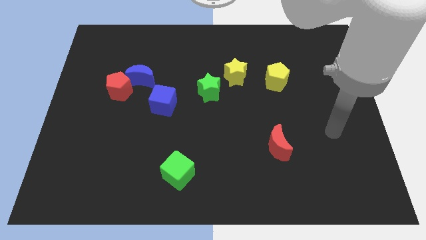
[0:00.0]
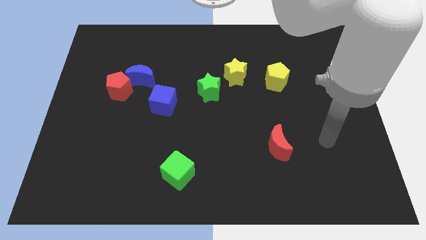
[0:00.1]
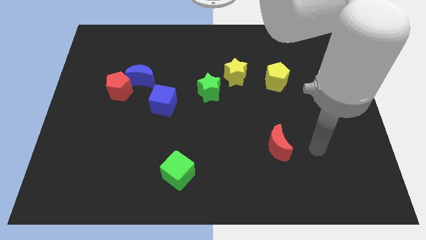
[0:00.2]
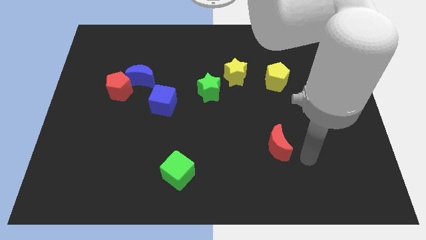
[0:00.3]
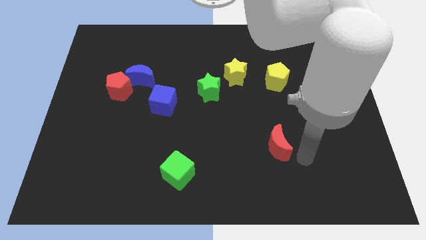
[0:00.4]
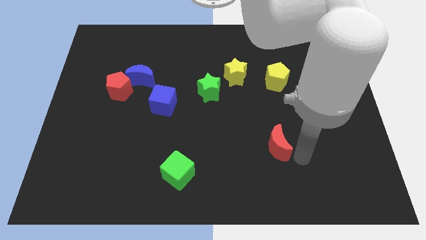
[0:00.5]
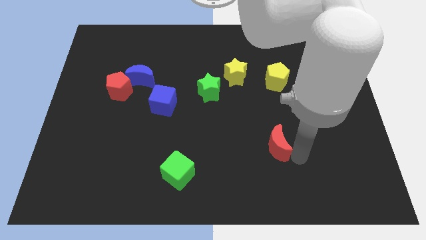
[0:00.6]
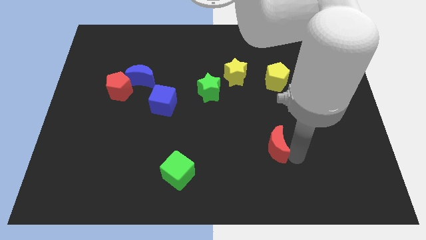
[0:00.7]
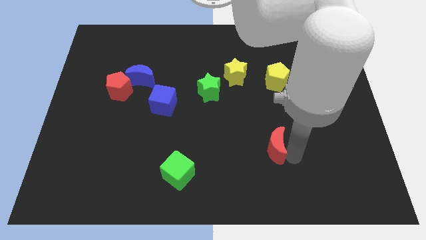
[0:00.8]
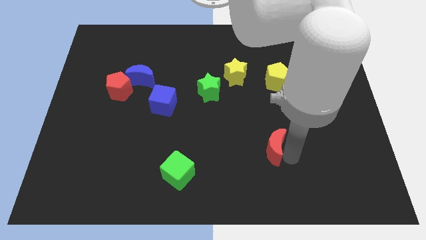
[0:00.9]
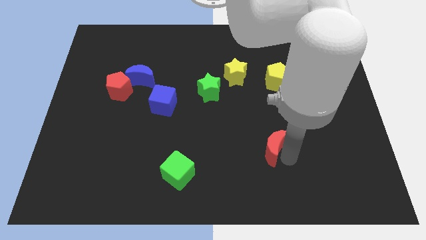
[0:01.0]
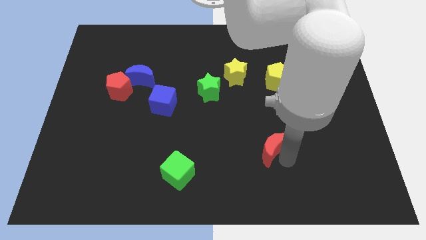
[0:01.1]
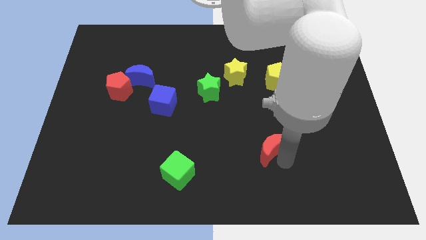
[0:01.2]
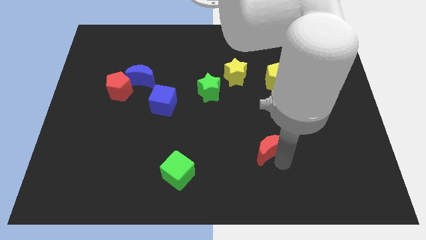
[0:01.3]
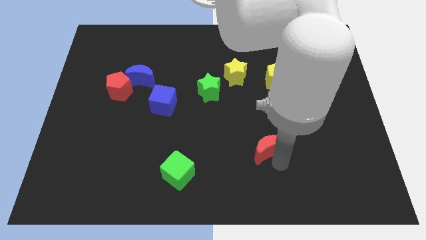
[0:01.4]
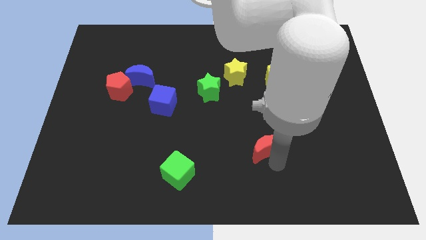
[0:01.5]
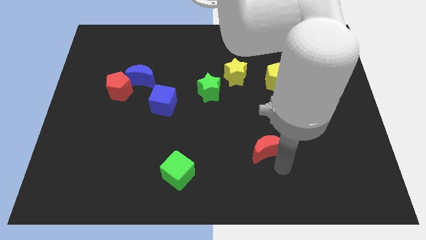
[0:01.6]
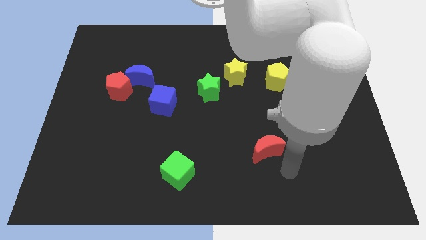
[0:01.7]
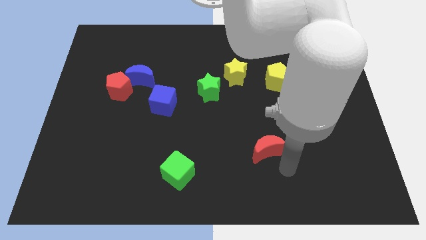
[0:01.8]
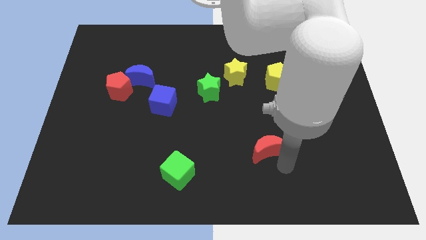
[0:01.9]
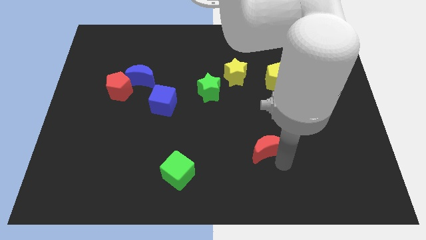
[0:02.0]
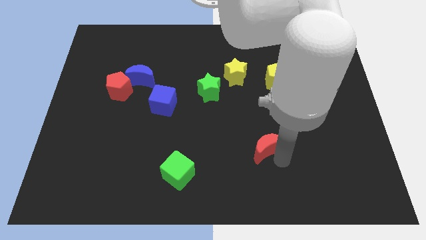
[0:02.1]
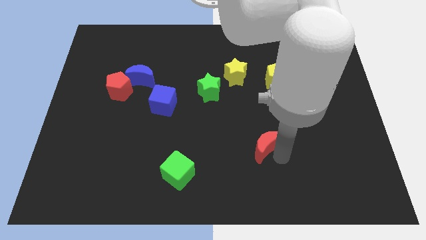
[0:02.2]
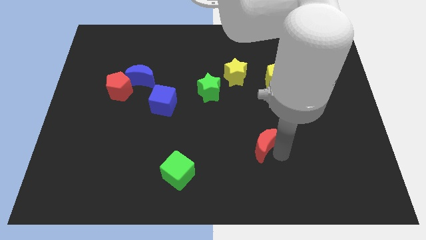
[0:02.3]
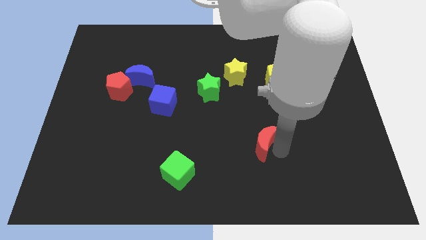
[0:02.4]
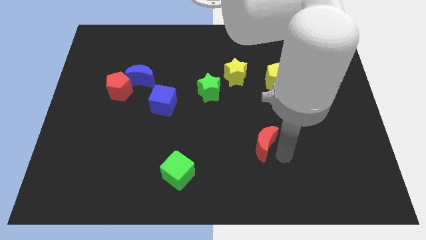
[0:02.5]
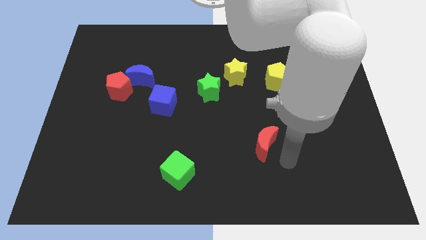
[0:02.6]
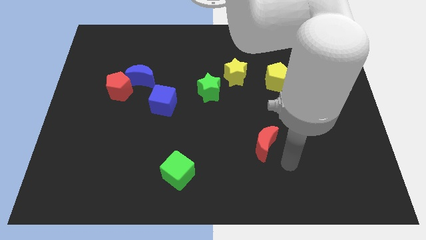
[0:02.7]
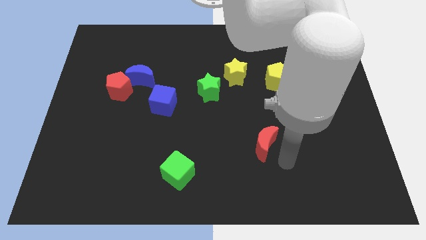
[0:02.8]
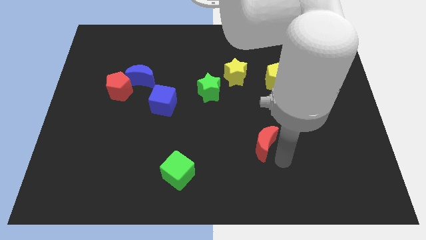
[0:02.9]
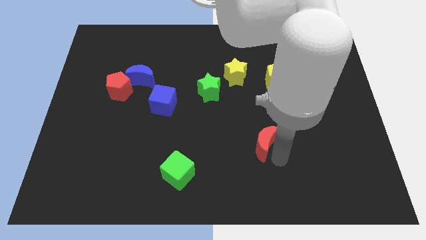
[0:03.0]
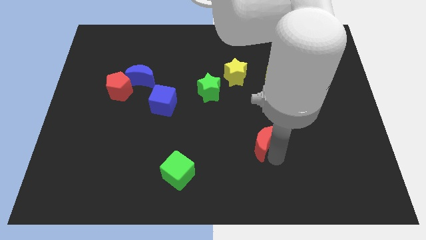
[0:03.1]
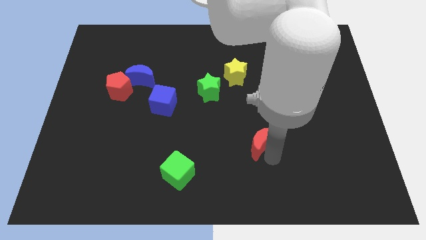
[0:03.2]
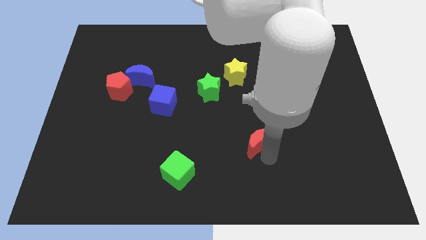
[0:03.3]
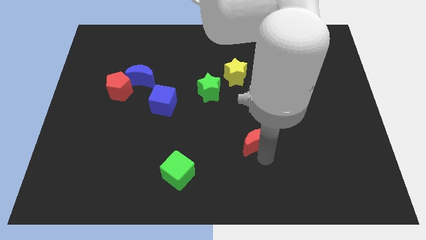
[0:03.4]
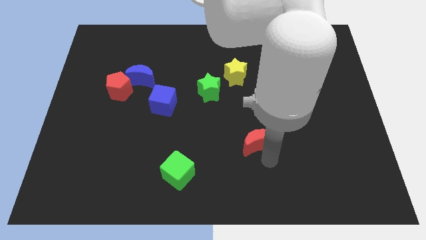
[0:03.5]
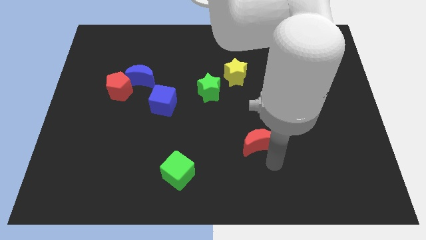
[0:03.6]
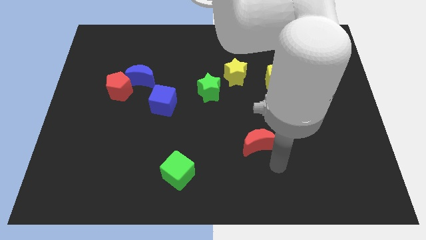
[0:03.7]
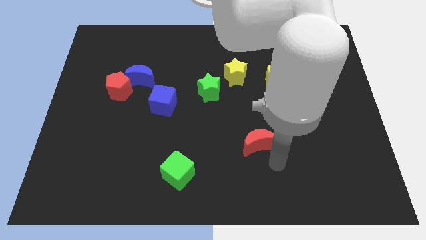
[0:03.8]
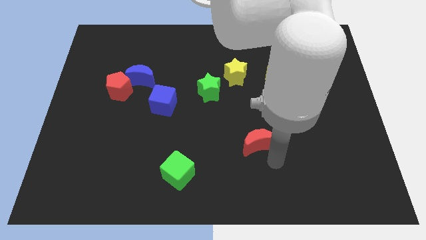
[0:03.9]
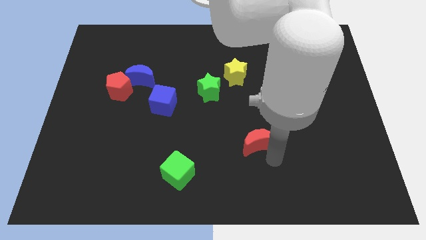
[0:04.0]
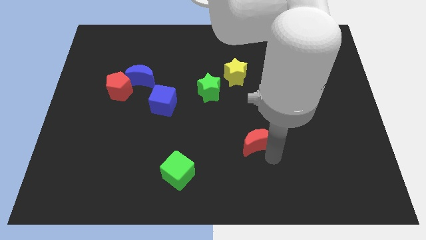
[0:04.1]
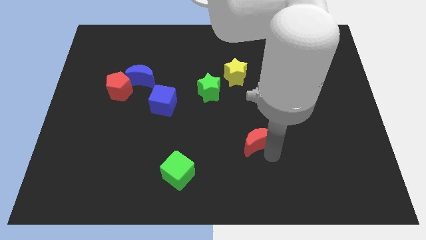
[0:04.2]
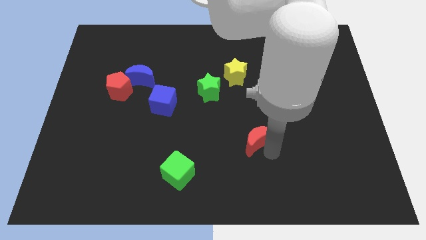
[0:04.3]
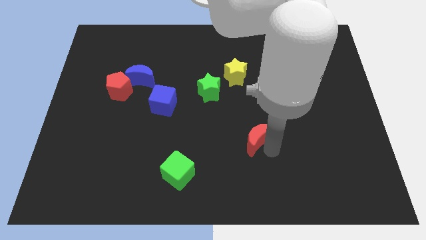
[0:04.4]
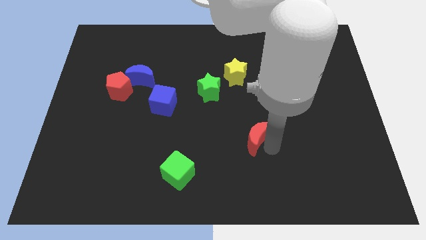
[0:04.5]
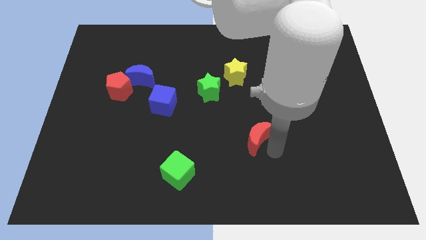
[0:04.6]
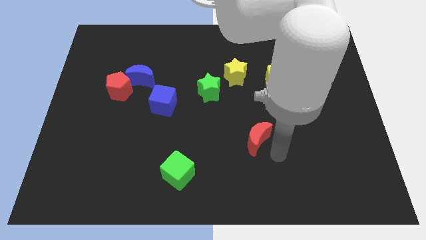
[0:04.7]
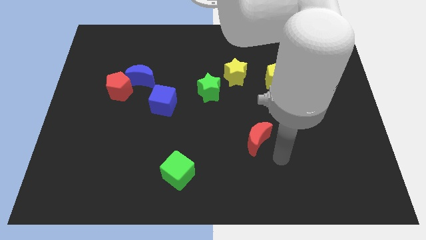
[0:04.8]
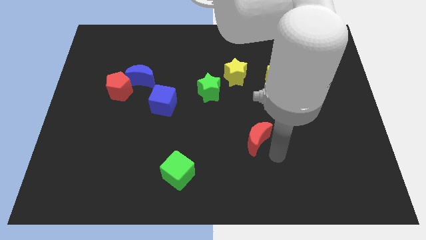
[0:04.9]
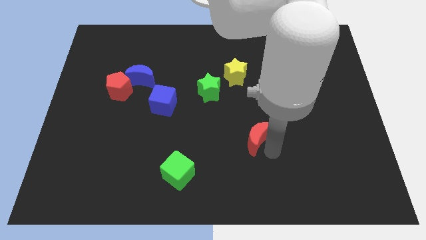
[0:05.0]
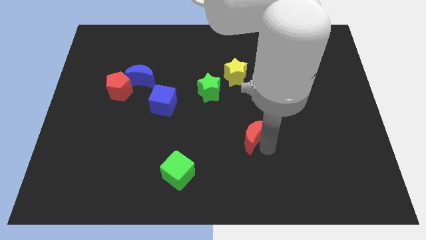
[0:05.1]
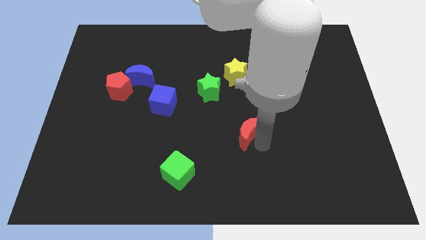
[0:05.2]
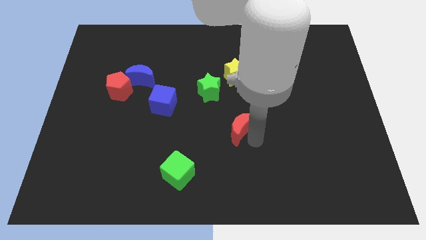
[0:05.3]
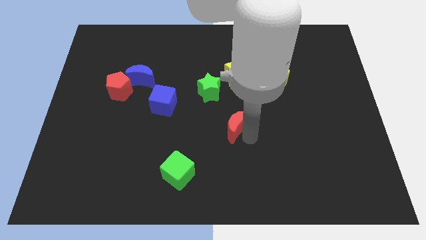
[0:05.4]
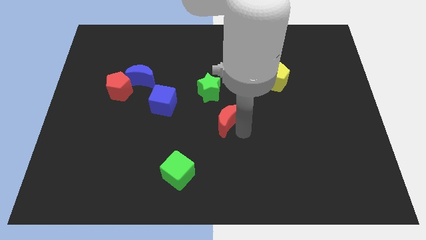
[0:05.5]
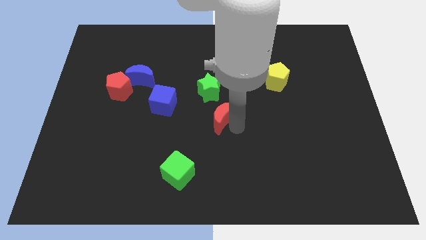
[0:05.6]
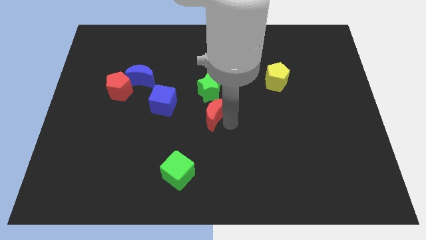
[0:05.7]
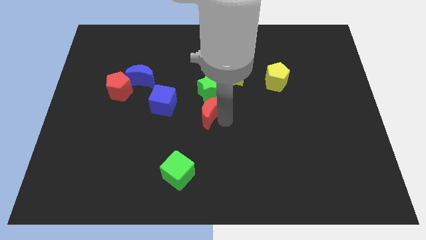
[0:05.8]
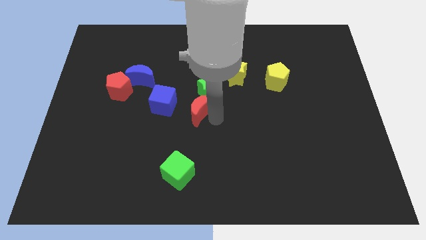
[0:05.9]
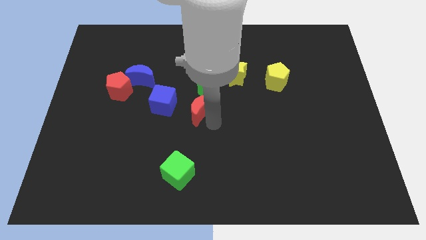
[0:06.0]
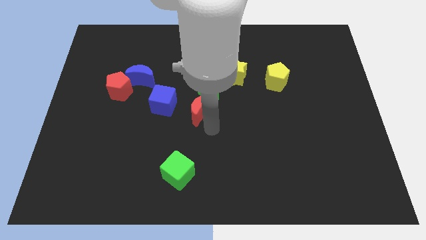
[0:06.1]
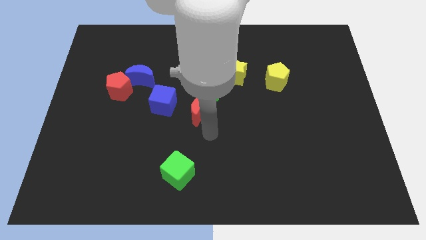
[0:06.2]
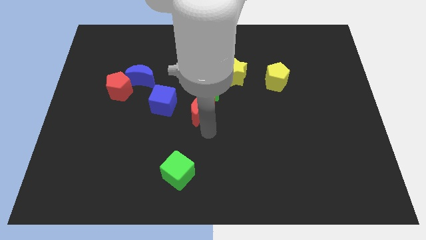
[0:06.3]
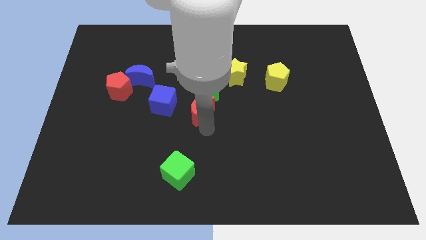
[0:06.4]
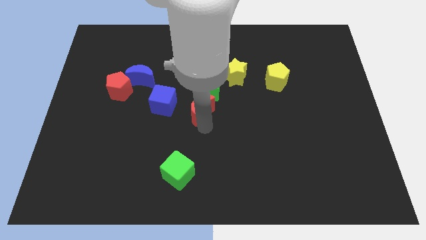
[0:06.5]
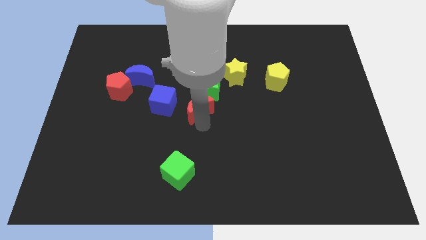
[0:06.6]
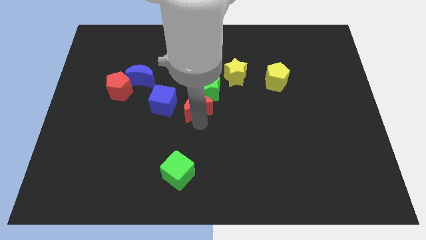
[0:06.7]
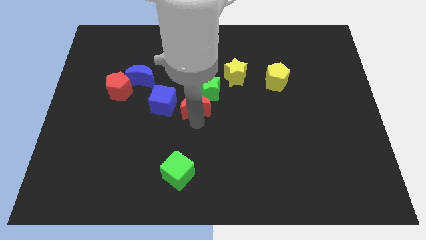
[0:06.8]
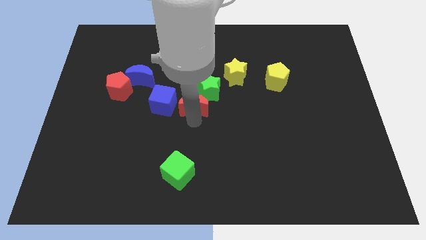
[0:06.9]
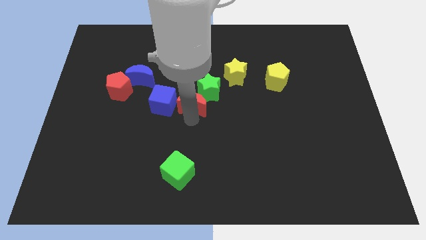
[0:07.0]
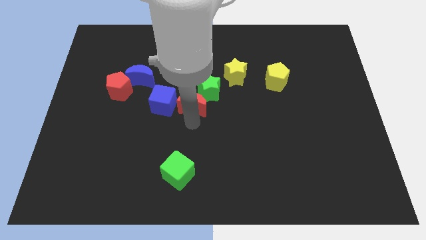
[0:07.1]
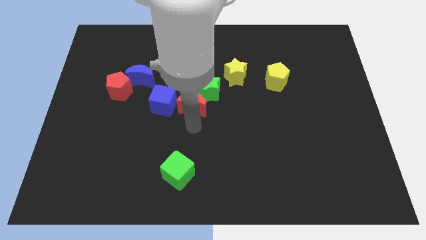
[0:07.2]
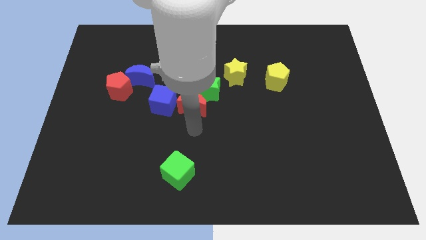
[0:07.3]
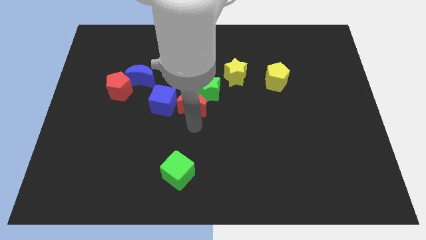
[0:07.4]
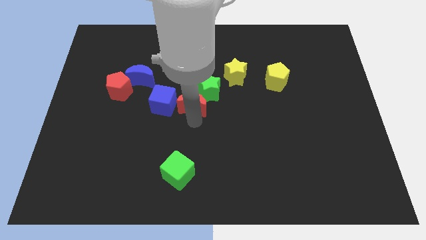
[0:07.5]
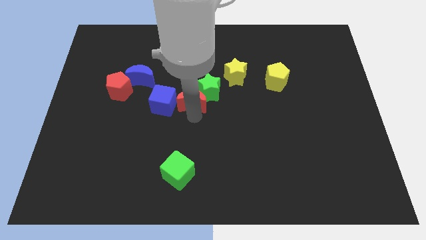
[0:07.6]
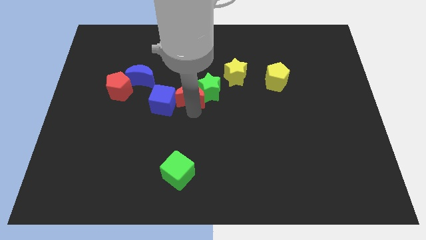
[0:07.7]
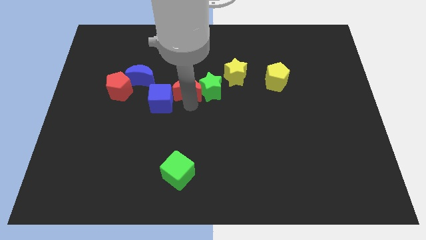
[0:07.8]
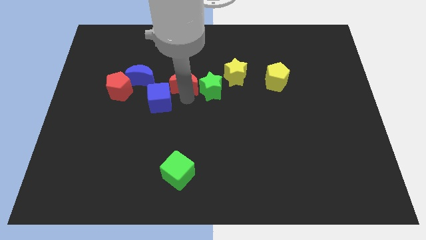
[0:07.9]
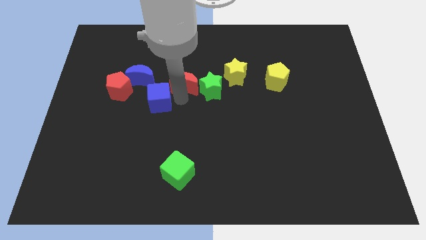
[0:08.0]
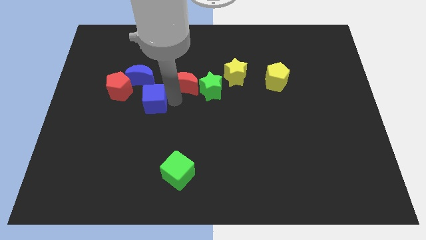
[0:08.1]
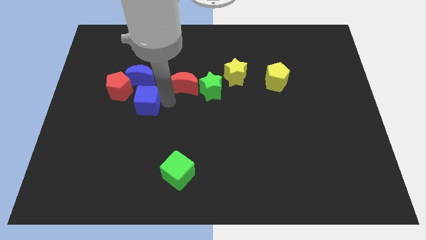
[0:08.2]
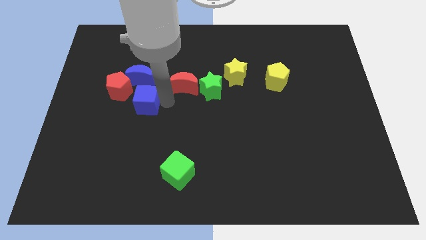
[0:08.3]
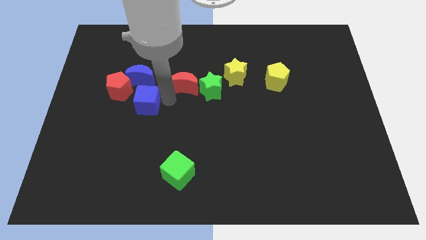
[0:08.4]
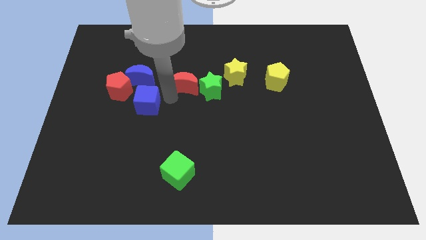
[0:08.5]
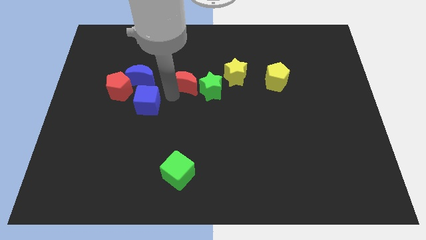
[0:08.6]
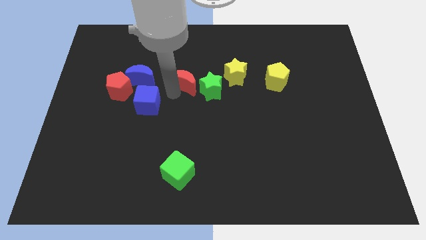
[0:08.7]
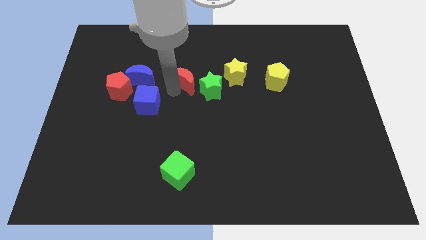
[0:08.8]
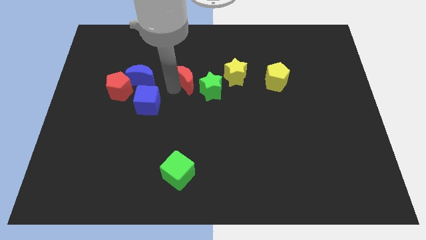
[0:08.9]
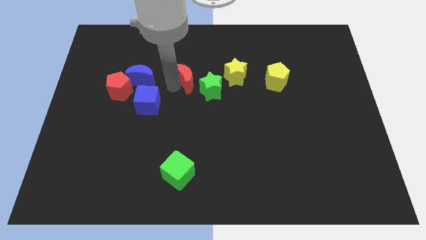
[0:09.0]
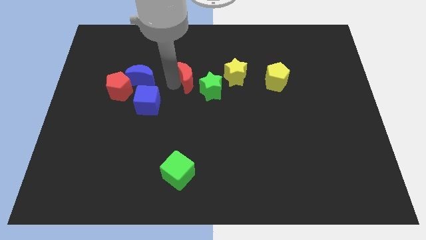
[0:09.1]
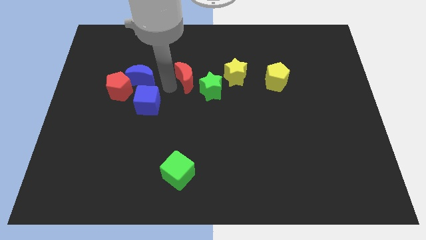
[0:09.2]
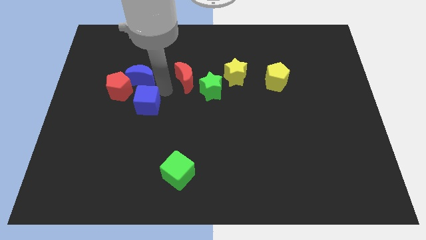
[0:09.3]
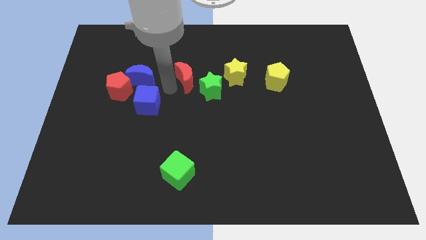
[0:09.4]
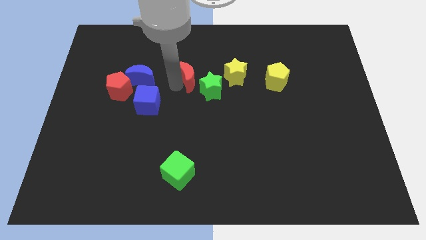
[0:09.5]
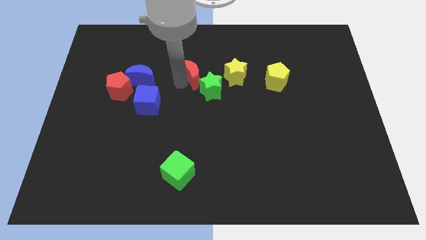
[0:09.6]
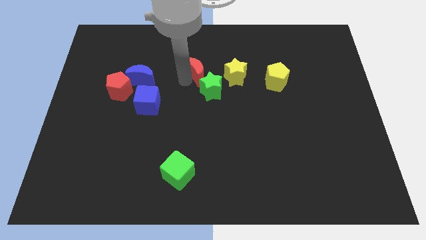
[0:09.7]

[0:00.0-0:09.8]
move the red moon above the green star
